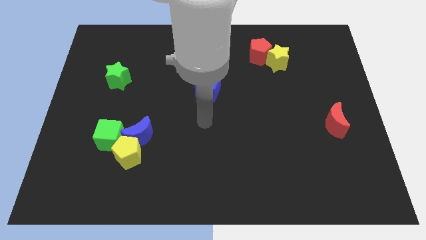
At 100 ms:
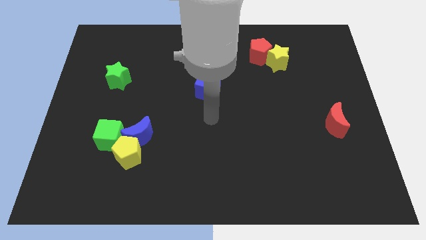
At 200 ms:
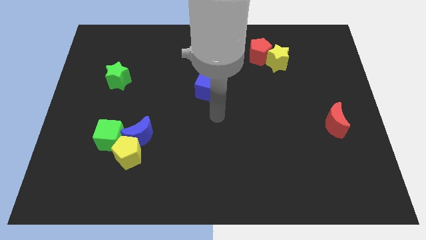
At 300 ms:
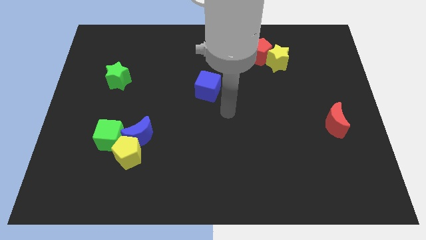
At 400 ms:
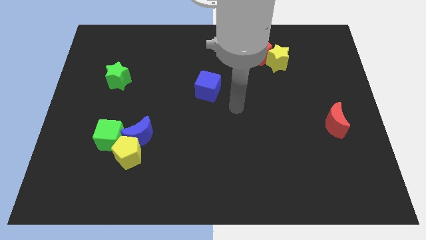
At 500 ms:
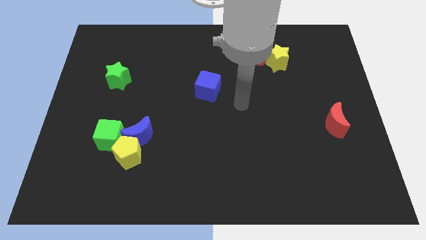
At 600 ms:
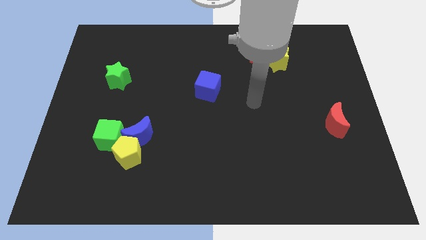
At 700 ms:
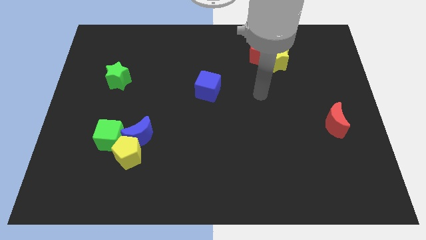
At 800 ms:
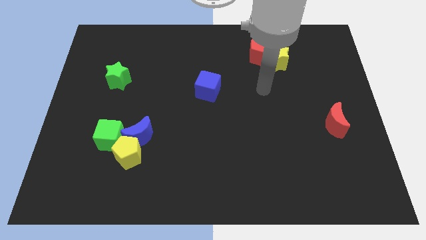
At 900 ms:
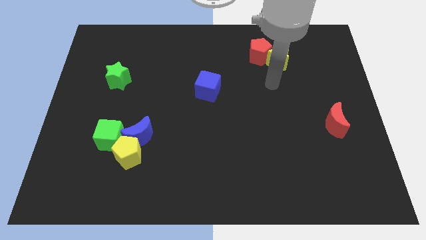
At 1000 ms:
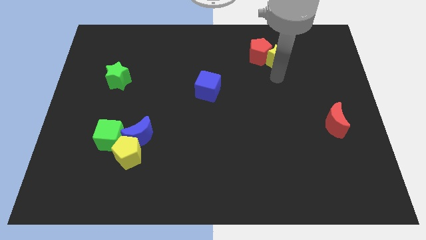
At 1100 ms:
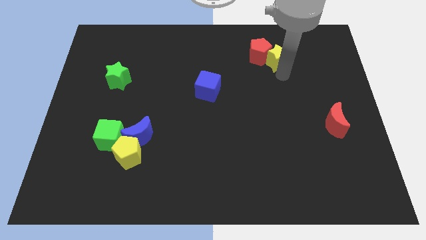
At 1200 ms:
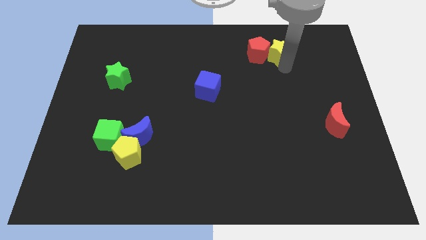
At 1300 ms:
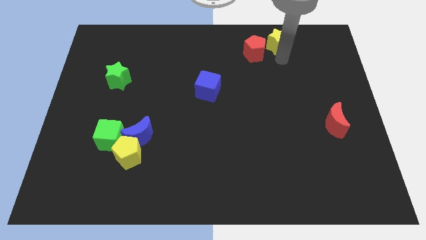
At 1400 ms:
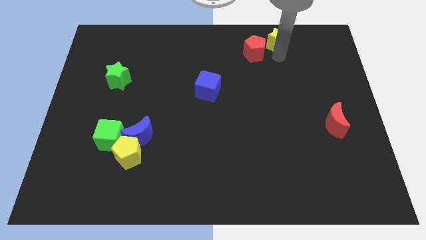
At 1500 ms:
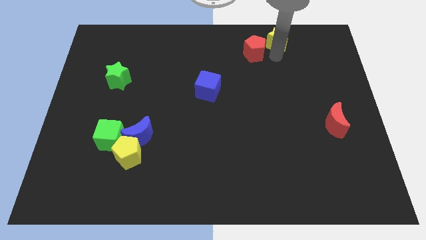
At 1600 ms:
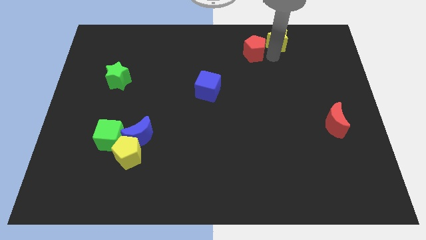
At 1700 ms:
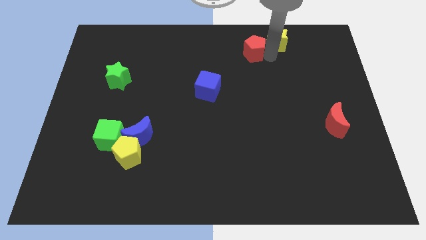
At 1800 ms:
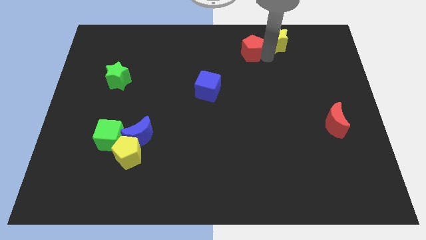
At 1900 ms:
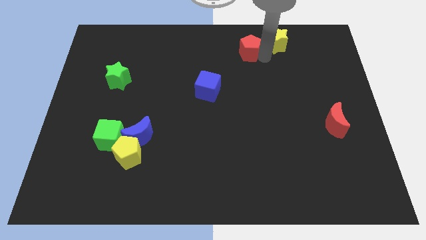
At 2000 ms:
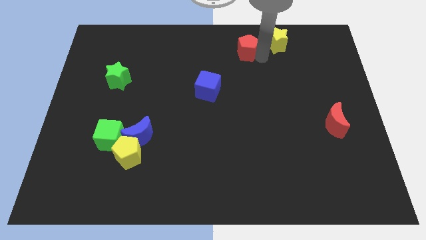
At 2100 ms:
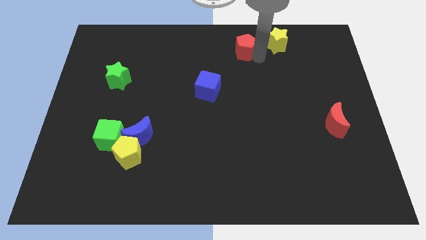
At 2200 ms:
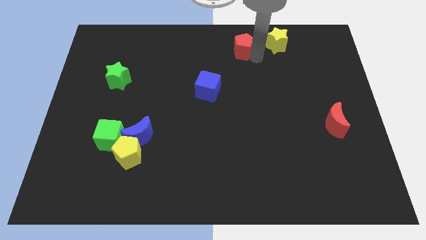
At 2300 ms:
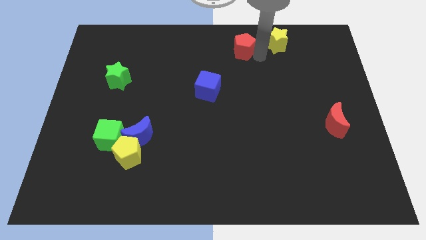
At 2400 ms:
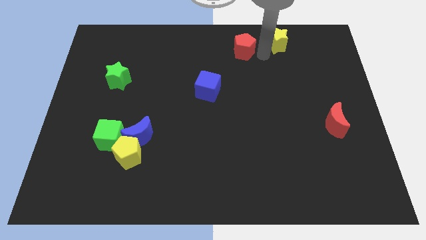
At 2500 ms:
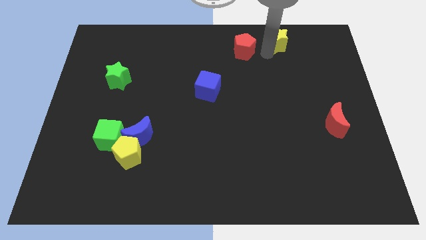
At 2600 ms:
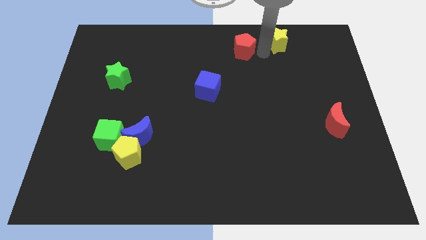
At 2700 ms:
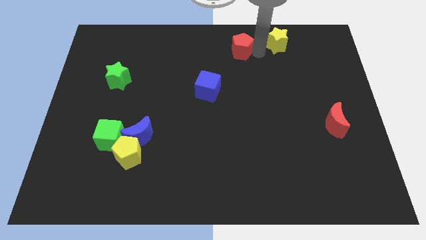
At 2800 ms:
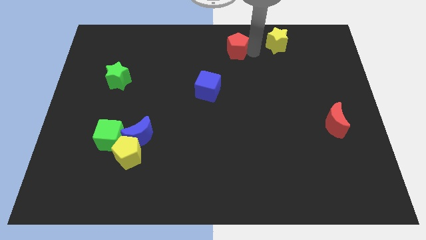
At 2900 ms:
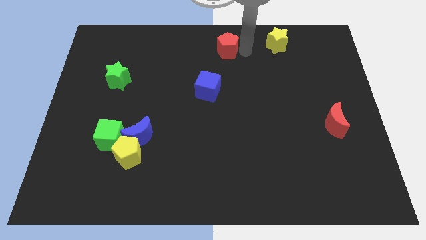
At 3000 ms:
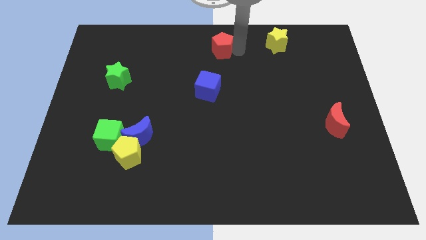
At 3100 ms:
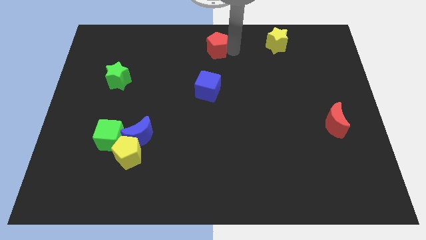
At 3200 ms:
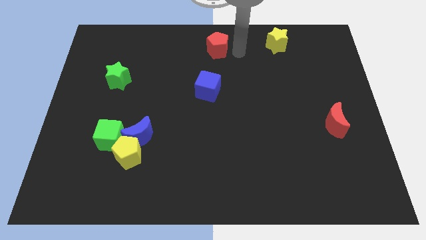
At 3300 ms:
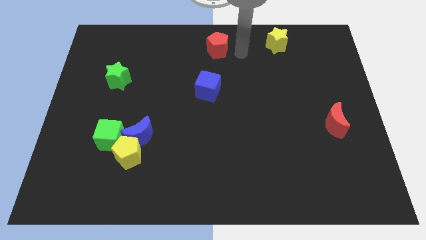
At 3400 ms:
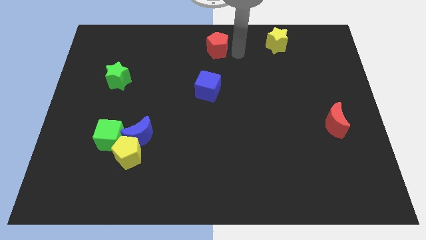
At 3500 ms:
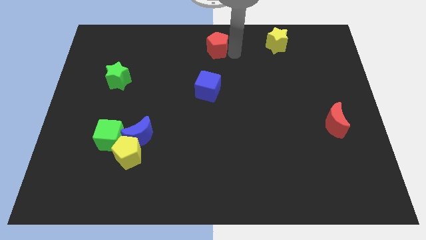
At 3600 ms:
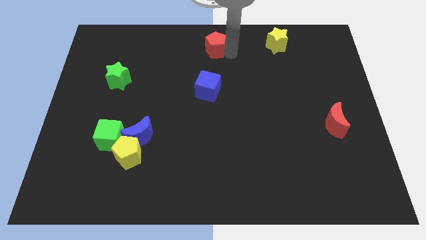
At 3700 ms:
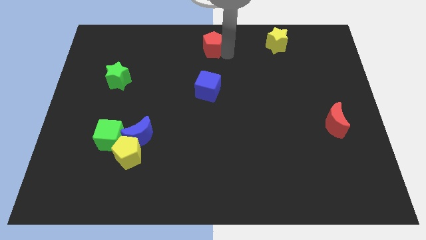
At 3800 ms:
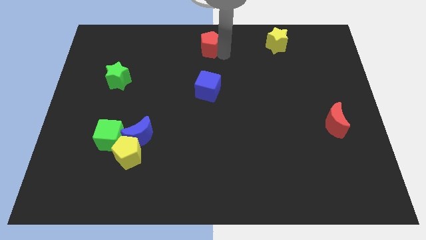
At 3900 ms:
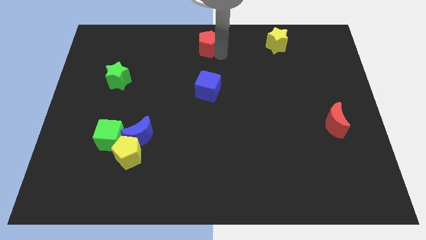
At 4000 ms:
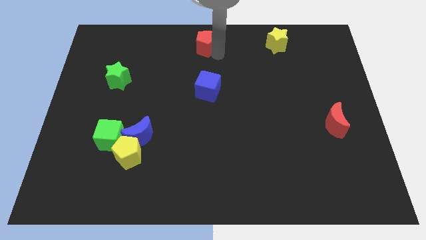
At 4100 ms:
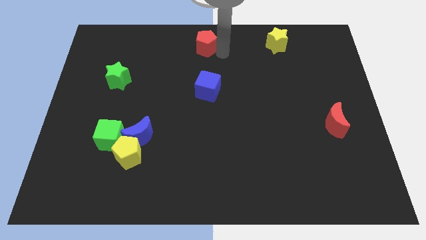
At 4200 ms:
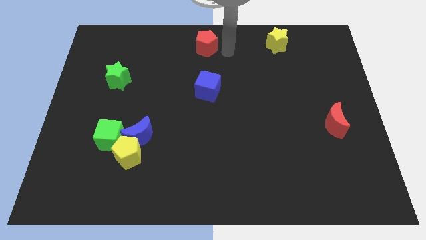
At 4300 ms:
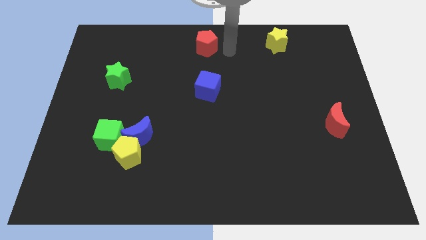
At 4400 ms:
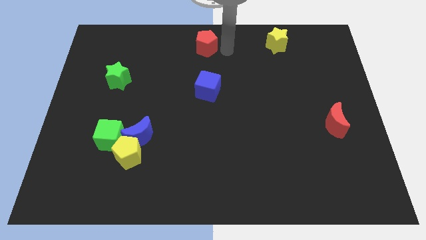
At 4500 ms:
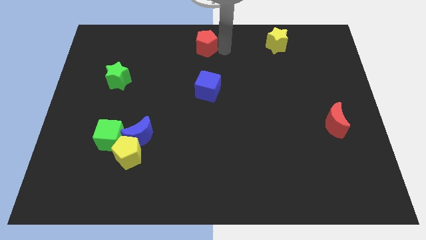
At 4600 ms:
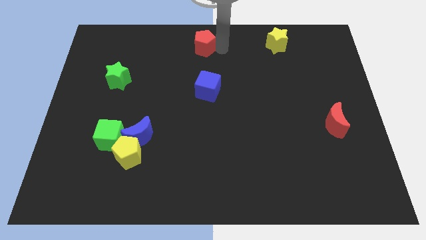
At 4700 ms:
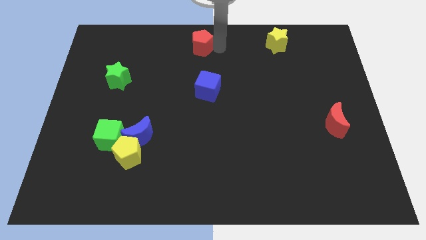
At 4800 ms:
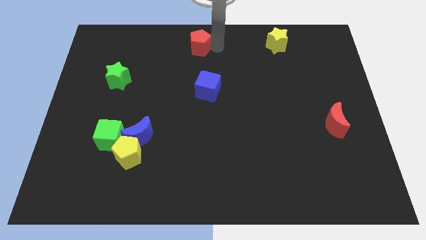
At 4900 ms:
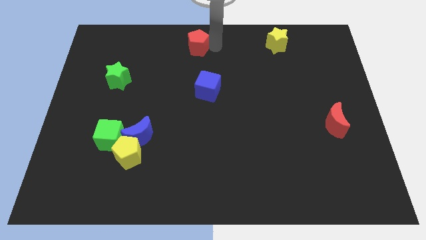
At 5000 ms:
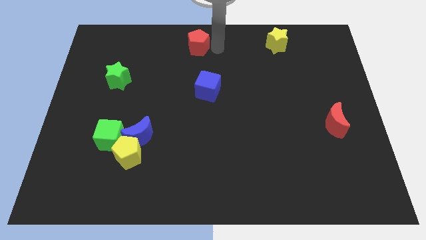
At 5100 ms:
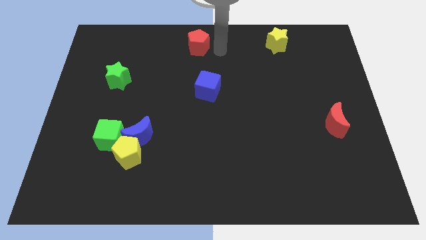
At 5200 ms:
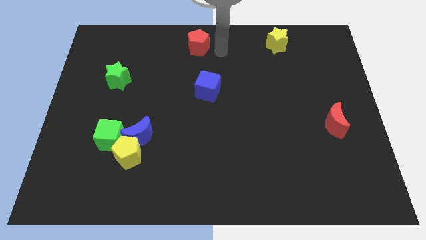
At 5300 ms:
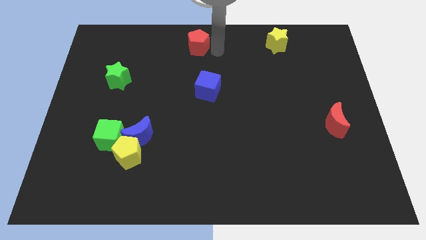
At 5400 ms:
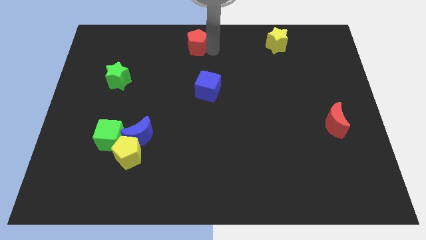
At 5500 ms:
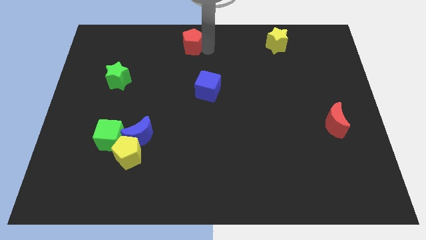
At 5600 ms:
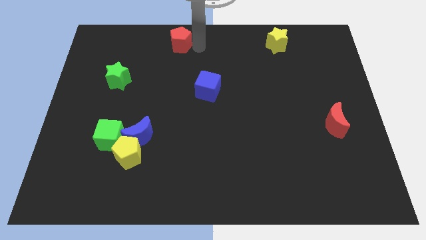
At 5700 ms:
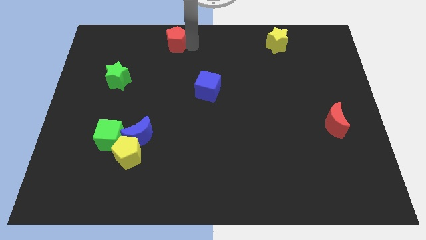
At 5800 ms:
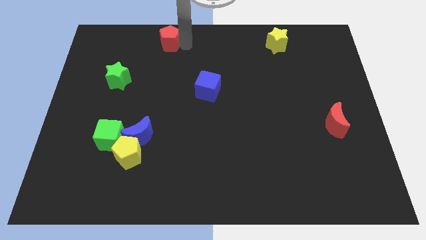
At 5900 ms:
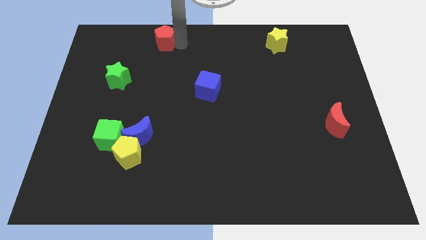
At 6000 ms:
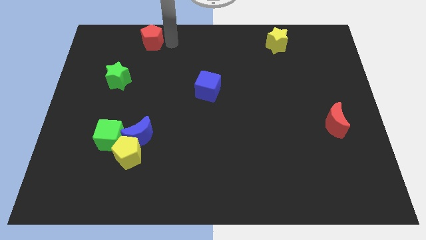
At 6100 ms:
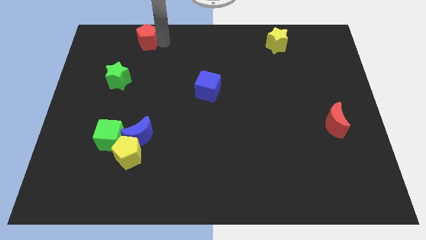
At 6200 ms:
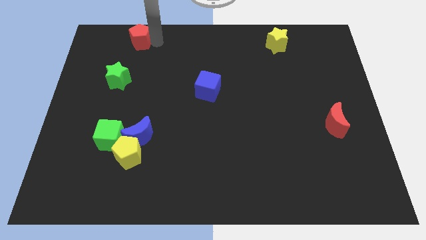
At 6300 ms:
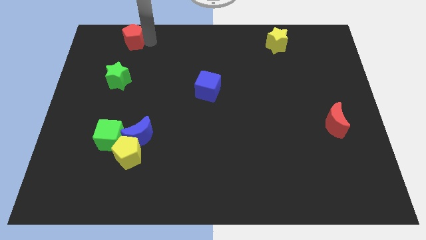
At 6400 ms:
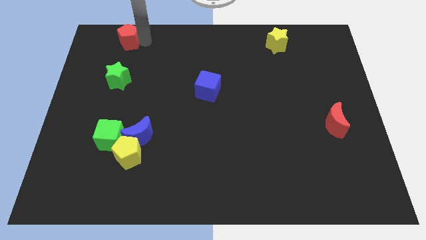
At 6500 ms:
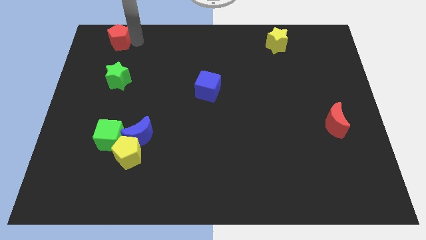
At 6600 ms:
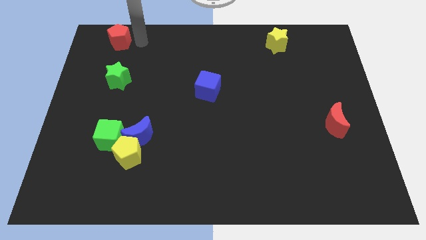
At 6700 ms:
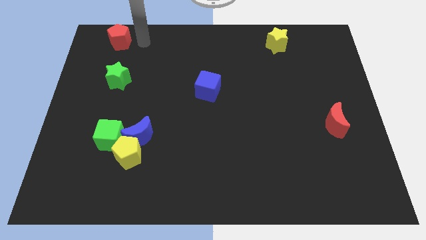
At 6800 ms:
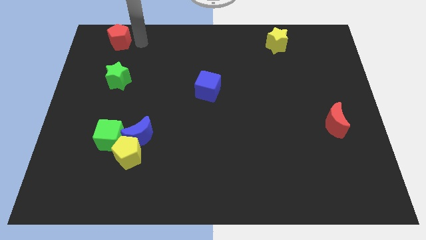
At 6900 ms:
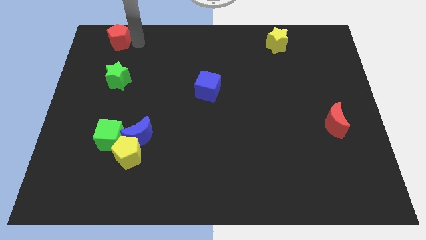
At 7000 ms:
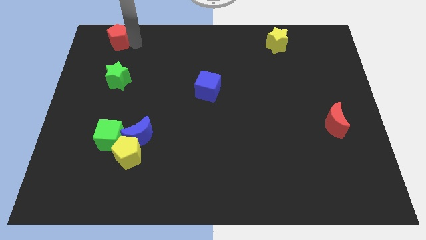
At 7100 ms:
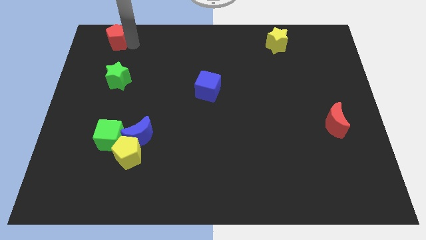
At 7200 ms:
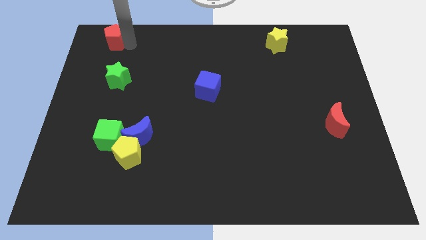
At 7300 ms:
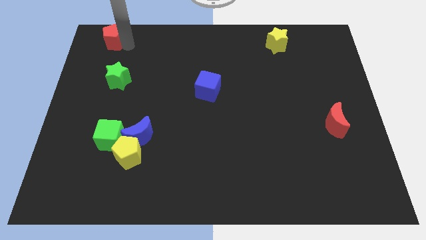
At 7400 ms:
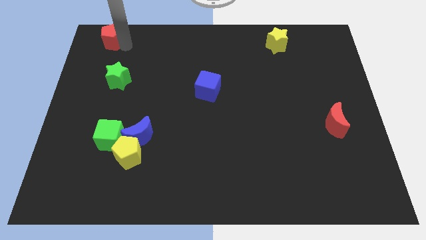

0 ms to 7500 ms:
slide the red pentagon to the top left of the board

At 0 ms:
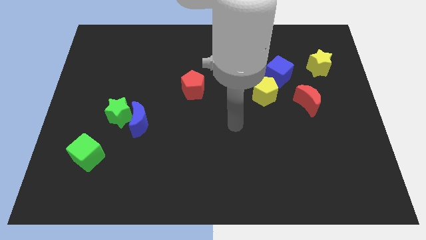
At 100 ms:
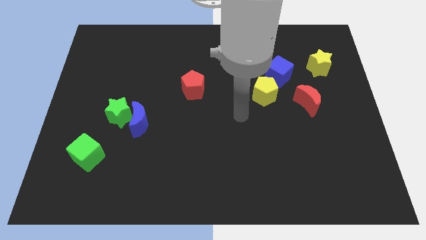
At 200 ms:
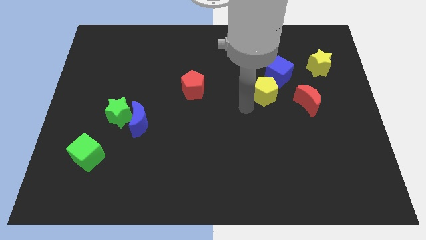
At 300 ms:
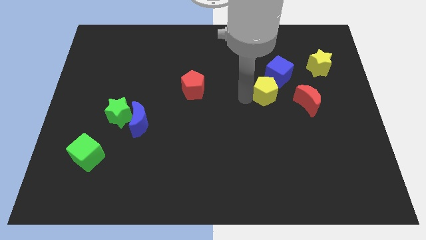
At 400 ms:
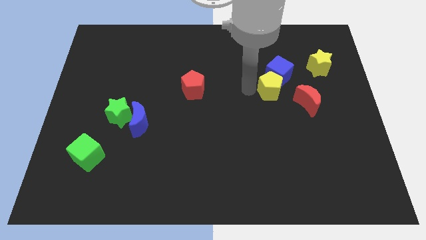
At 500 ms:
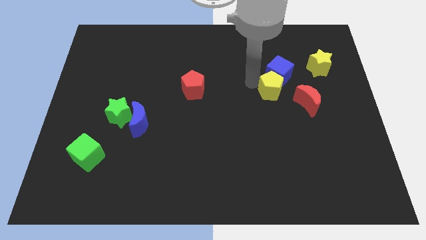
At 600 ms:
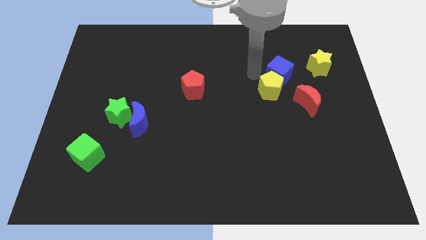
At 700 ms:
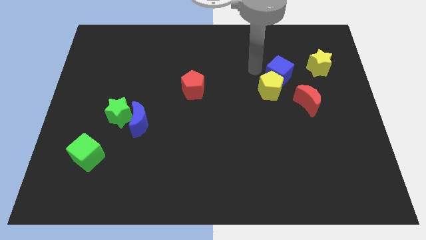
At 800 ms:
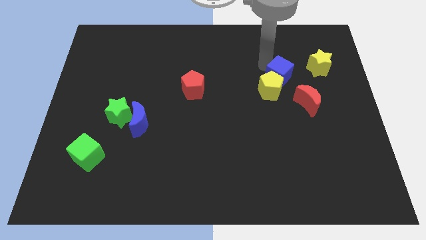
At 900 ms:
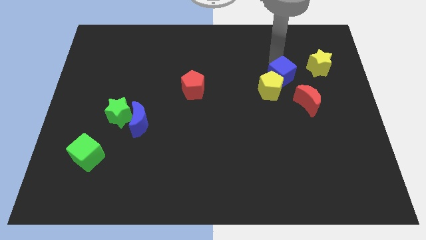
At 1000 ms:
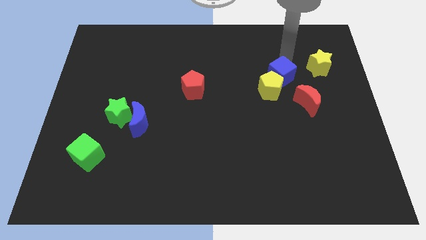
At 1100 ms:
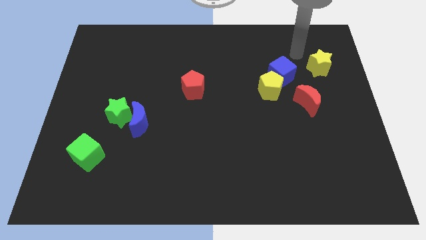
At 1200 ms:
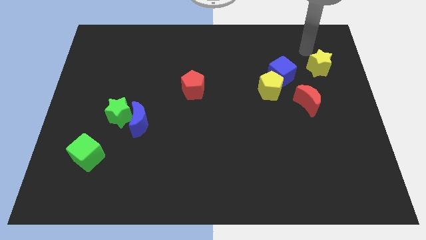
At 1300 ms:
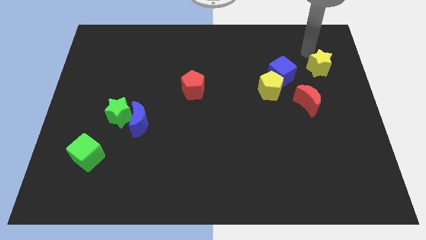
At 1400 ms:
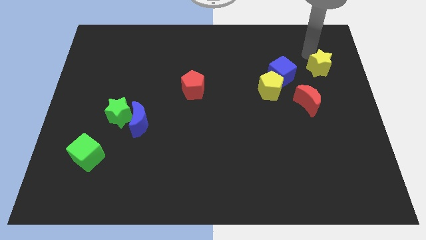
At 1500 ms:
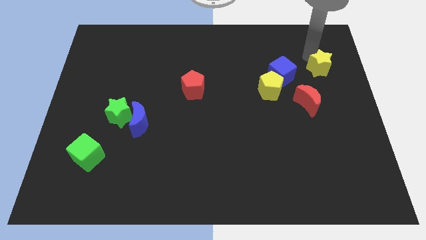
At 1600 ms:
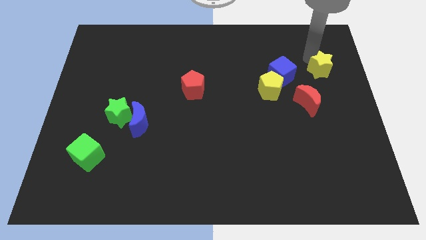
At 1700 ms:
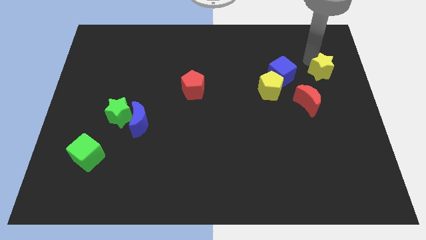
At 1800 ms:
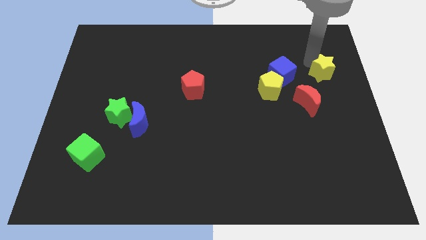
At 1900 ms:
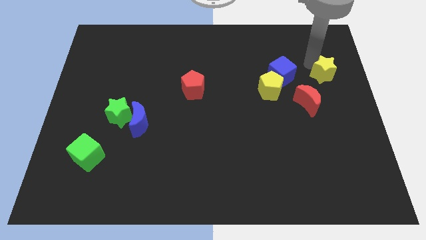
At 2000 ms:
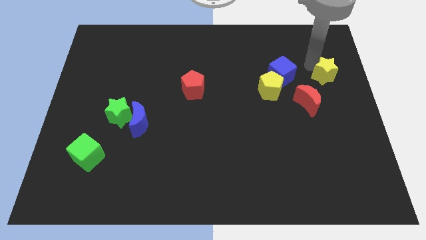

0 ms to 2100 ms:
put the yellow star to the center right
